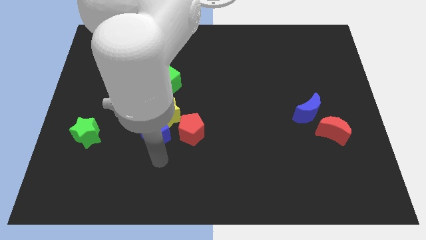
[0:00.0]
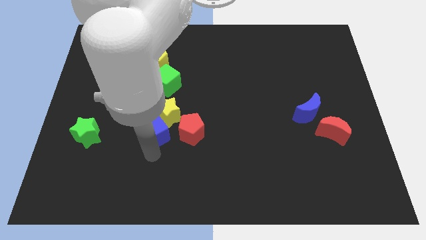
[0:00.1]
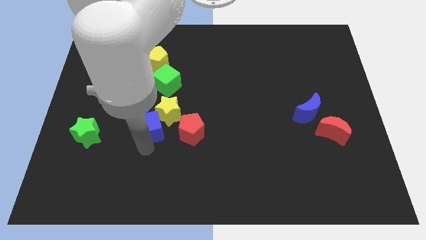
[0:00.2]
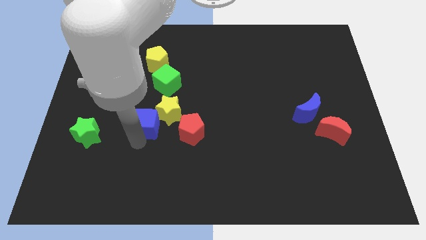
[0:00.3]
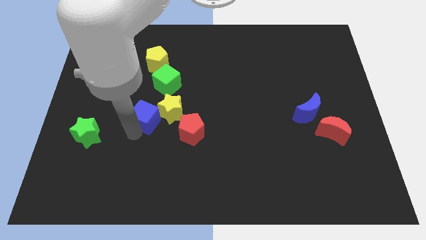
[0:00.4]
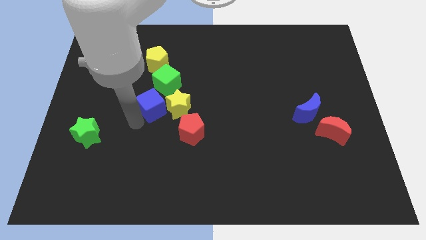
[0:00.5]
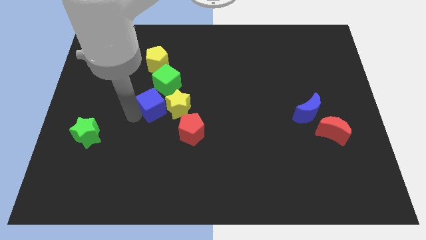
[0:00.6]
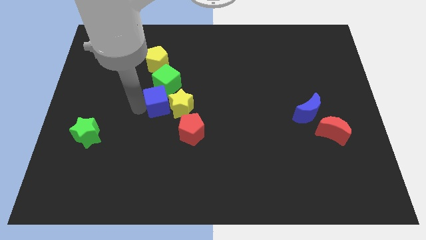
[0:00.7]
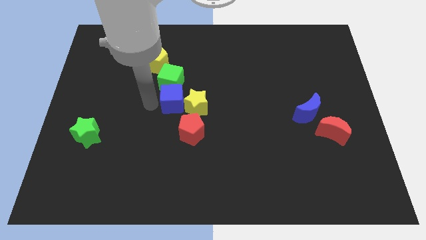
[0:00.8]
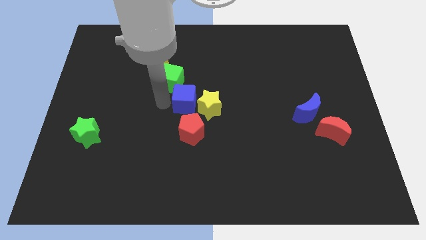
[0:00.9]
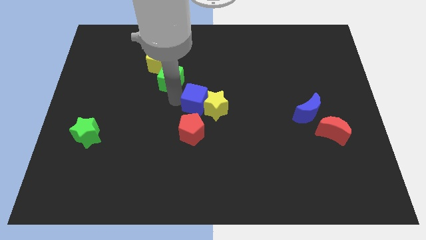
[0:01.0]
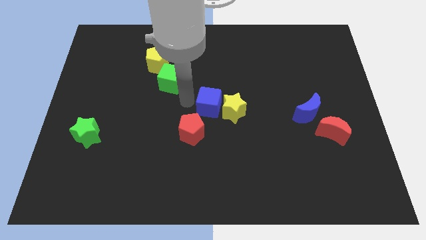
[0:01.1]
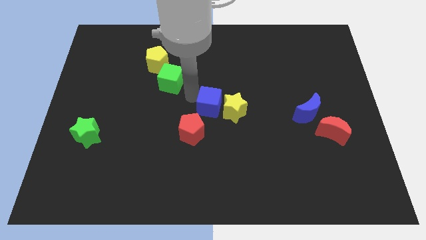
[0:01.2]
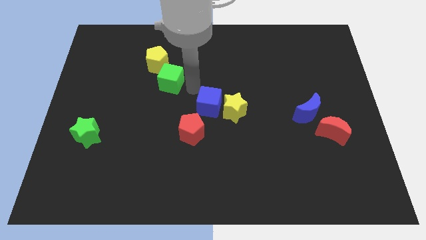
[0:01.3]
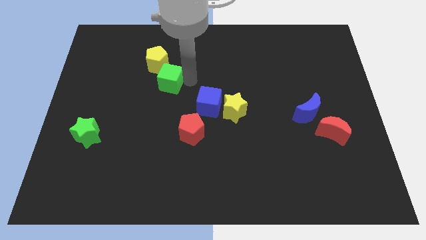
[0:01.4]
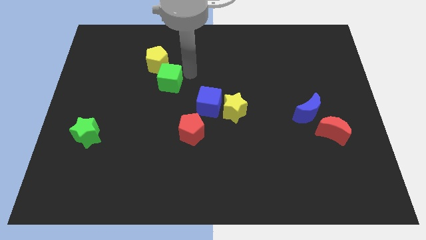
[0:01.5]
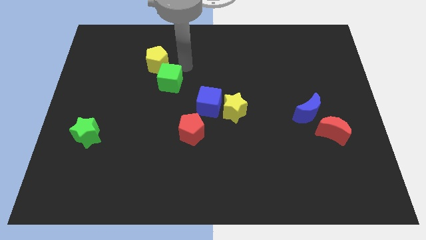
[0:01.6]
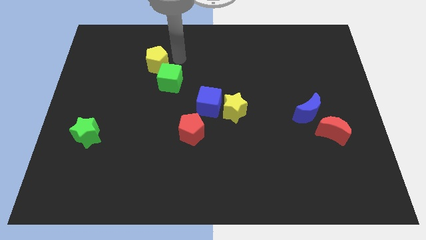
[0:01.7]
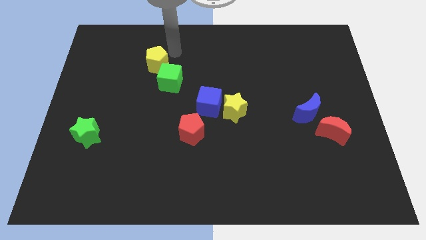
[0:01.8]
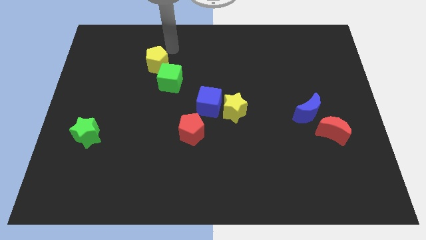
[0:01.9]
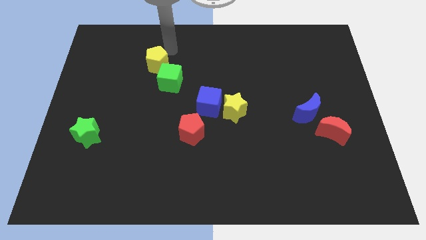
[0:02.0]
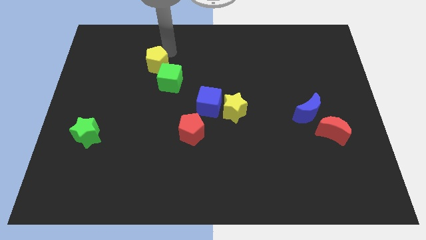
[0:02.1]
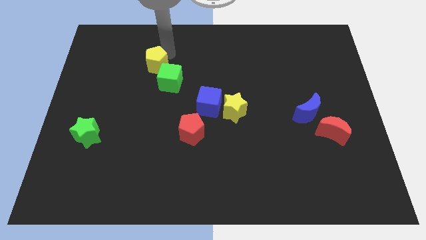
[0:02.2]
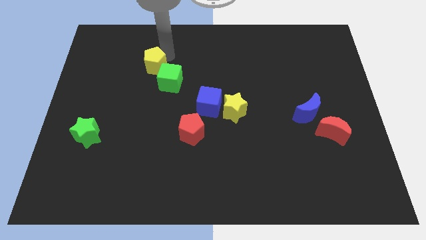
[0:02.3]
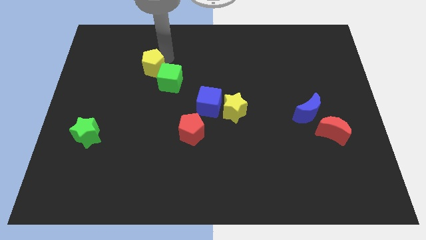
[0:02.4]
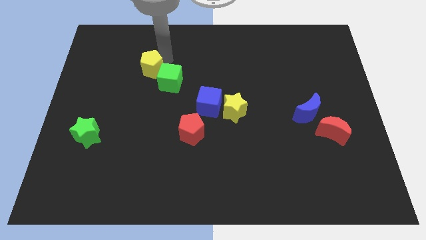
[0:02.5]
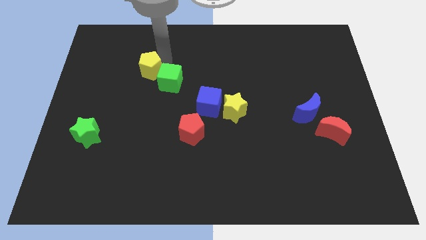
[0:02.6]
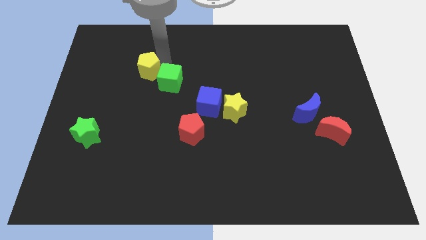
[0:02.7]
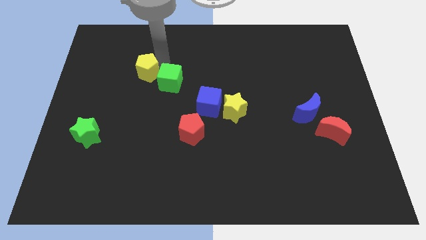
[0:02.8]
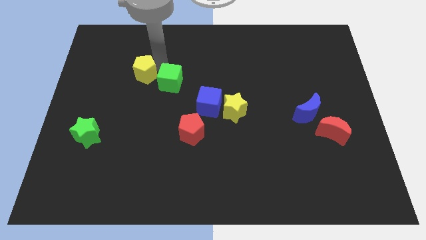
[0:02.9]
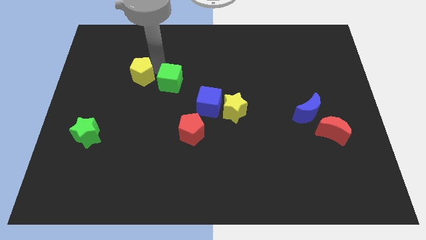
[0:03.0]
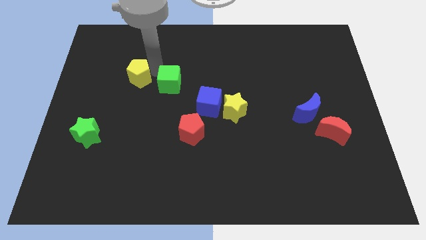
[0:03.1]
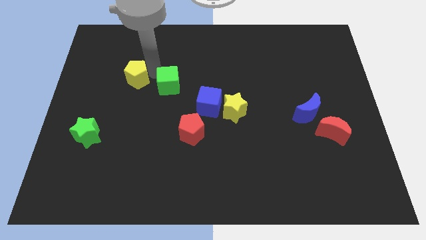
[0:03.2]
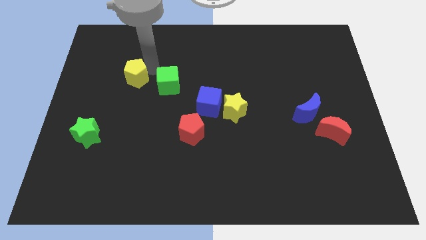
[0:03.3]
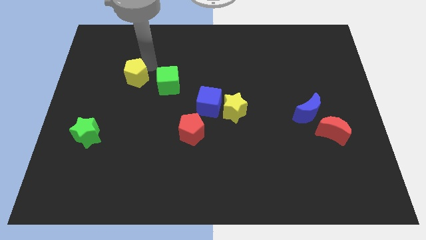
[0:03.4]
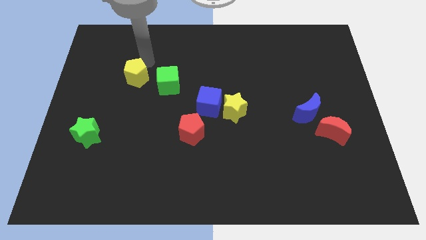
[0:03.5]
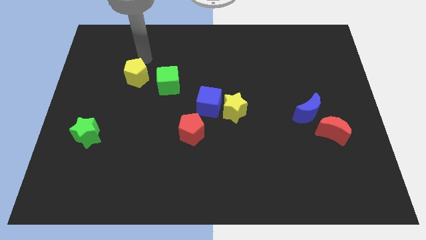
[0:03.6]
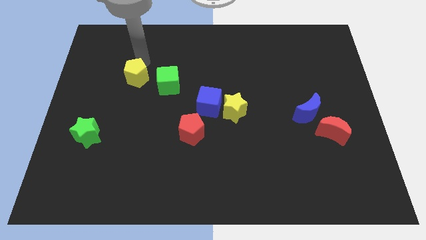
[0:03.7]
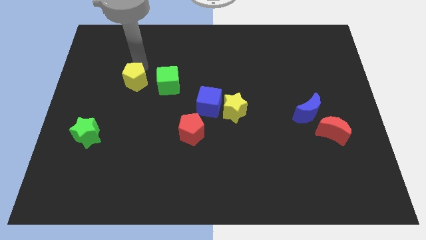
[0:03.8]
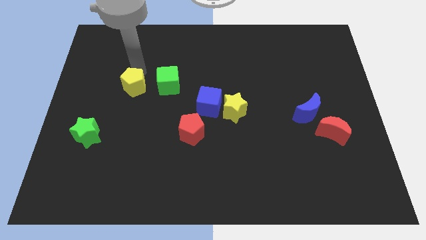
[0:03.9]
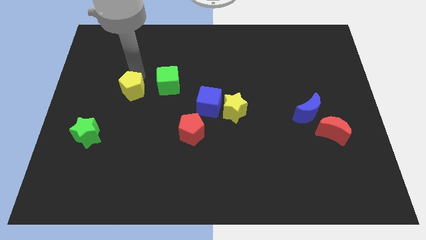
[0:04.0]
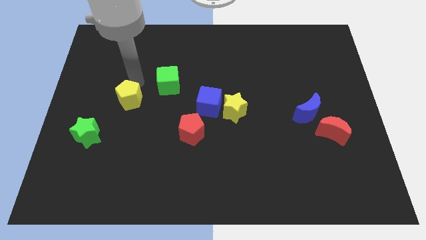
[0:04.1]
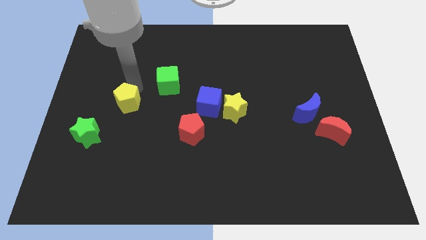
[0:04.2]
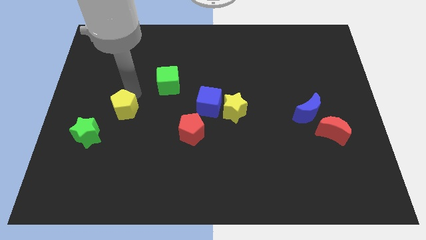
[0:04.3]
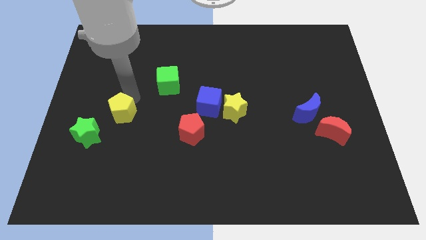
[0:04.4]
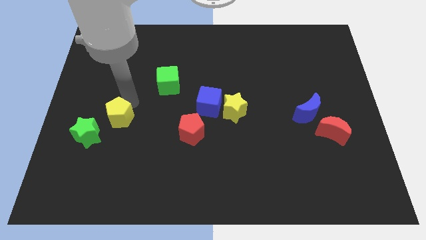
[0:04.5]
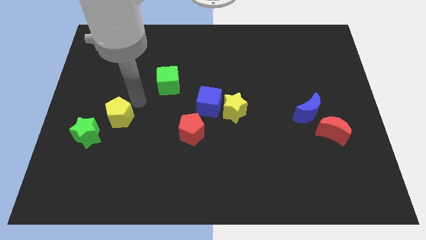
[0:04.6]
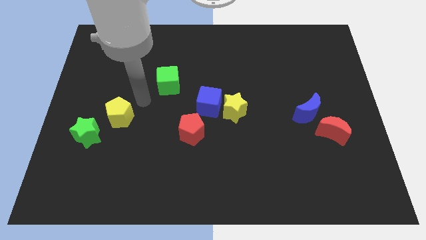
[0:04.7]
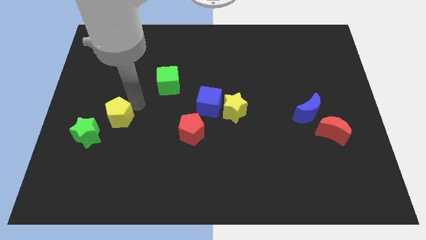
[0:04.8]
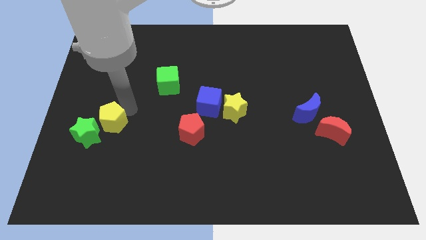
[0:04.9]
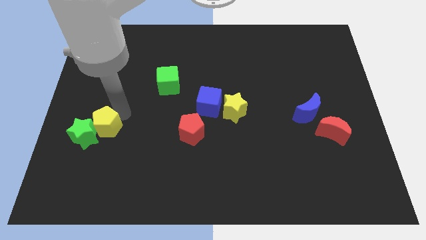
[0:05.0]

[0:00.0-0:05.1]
put the yellow pentagon next to the green star

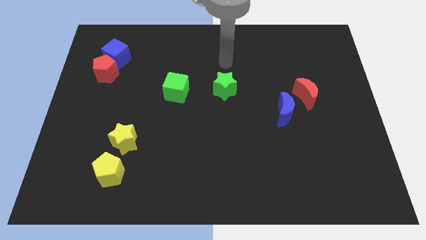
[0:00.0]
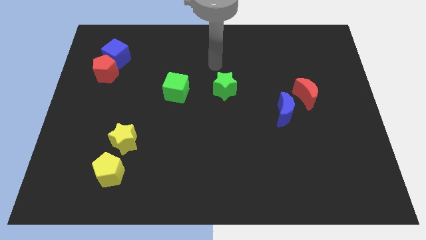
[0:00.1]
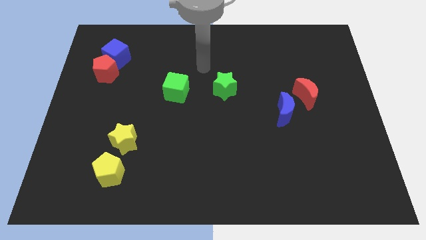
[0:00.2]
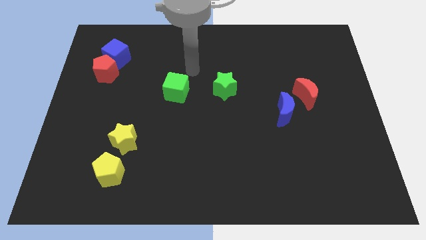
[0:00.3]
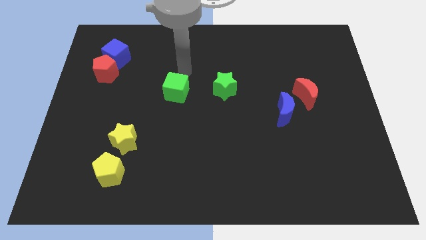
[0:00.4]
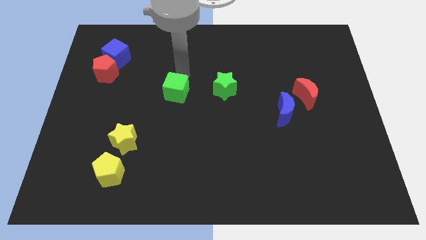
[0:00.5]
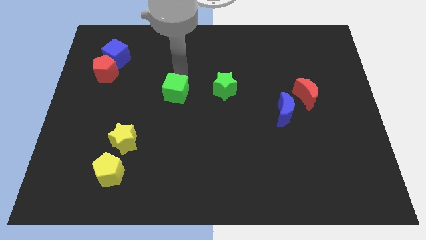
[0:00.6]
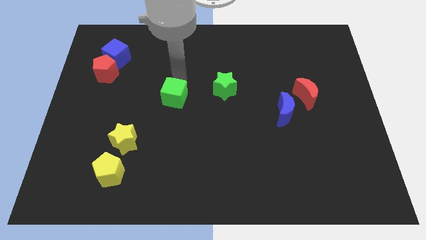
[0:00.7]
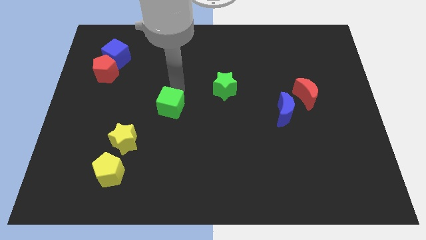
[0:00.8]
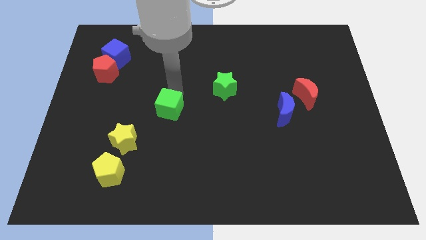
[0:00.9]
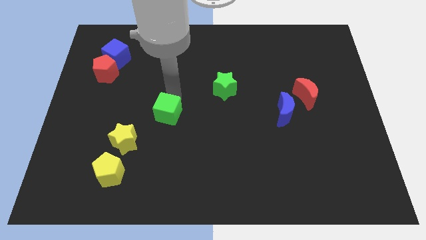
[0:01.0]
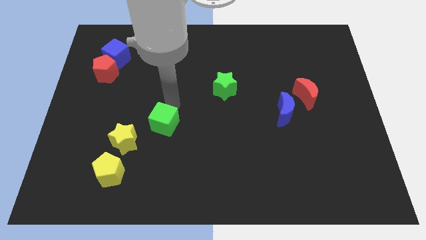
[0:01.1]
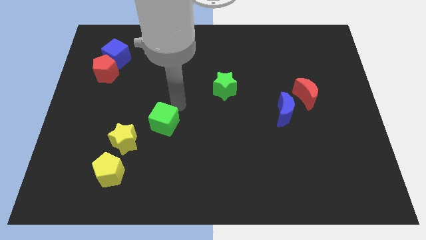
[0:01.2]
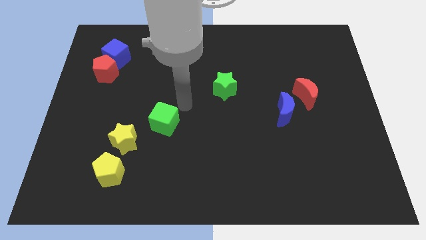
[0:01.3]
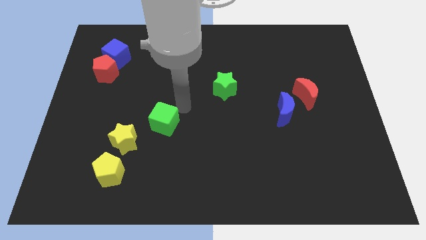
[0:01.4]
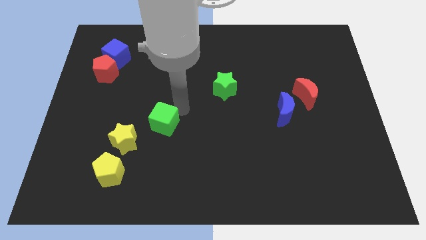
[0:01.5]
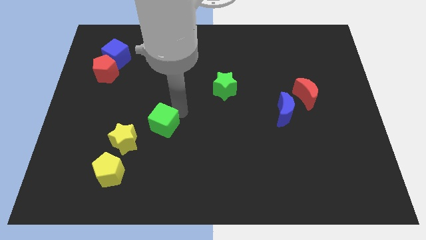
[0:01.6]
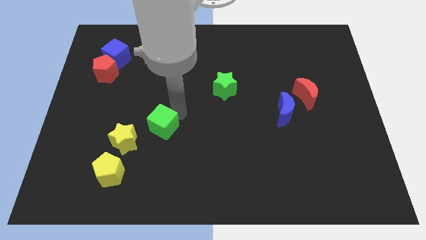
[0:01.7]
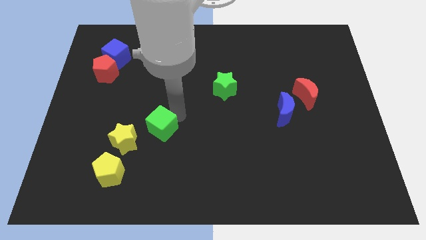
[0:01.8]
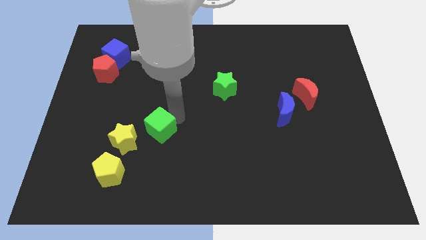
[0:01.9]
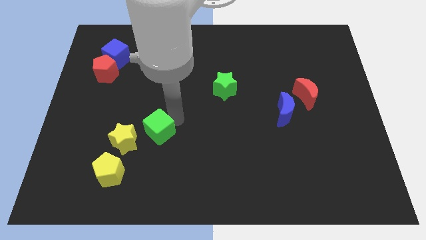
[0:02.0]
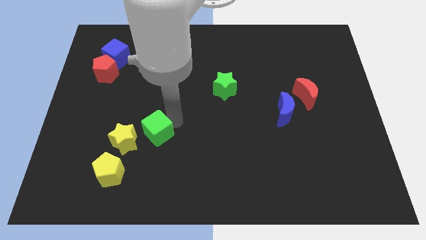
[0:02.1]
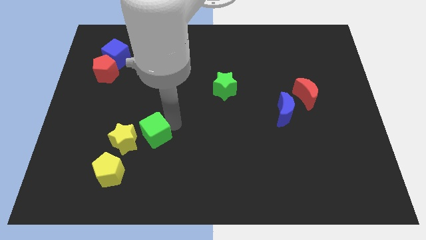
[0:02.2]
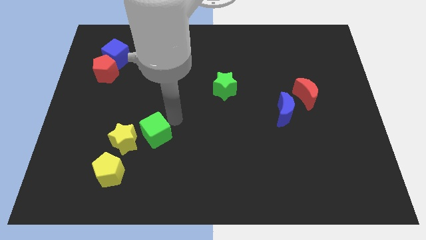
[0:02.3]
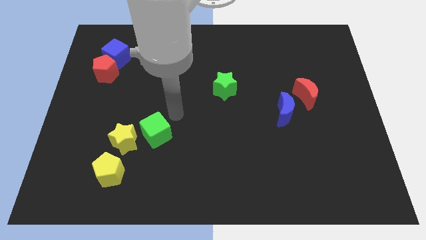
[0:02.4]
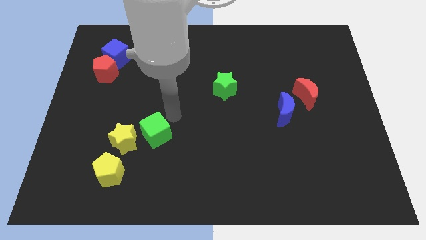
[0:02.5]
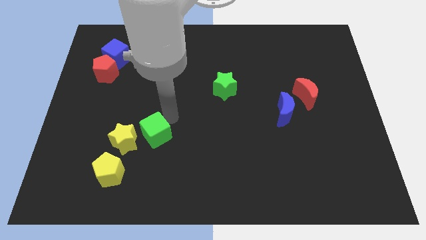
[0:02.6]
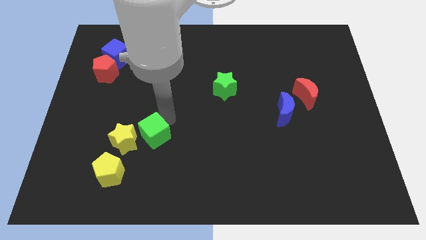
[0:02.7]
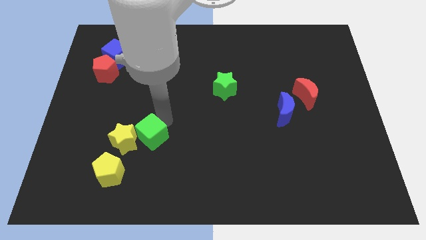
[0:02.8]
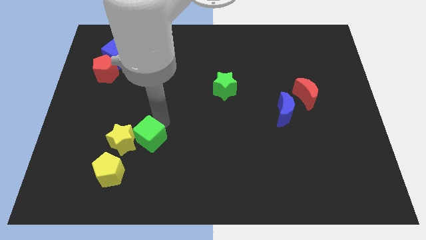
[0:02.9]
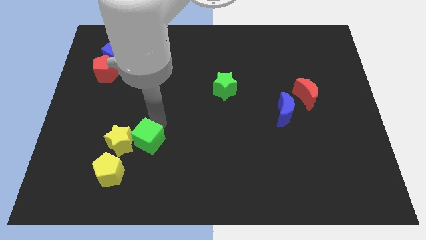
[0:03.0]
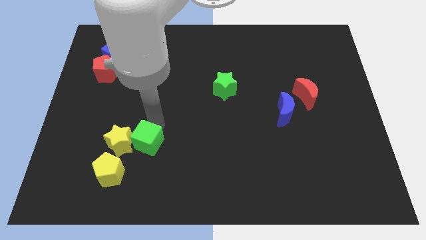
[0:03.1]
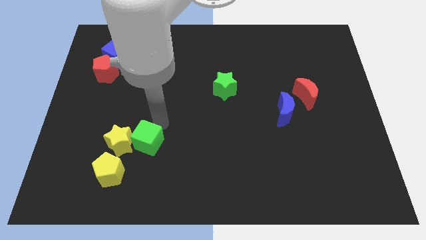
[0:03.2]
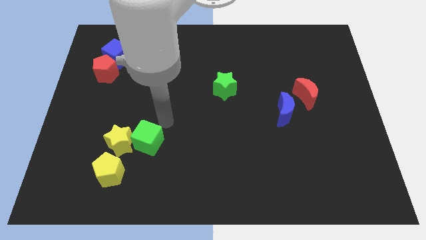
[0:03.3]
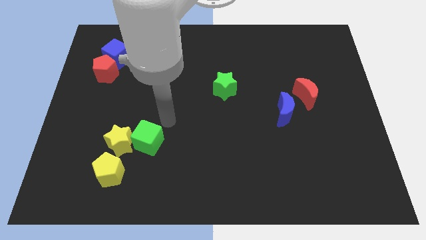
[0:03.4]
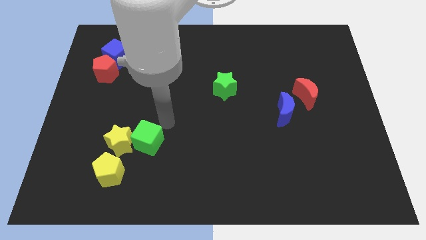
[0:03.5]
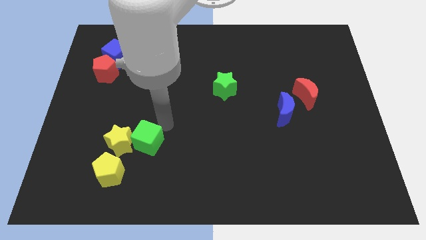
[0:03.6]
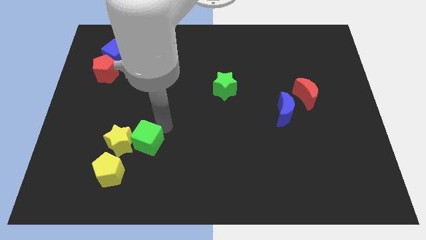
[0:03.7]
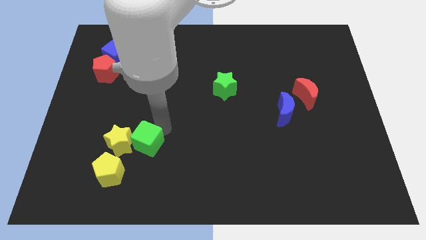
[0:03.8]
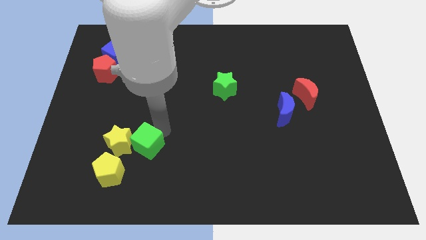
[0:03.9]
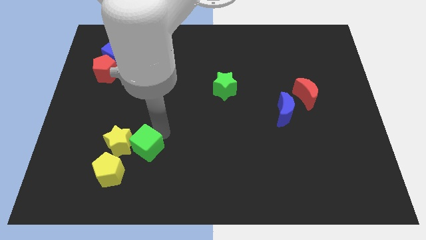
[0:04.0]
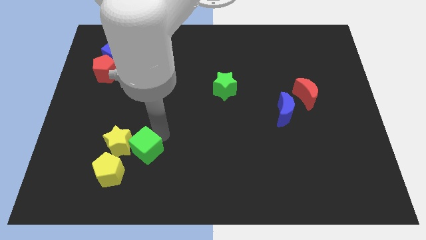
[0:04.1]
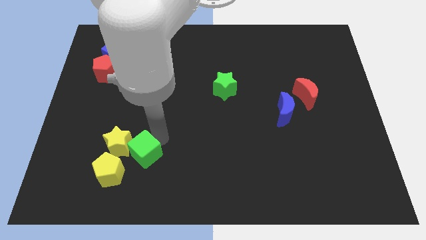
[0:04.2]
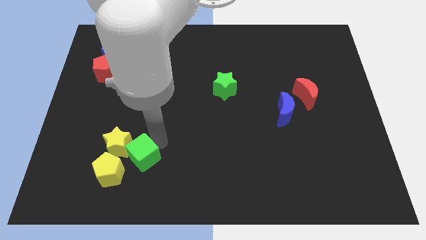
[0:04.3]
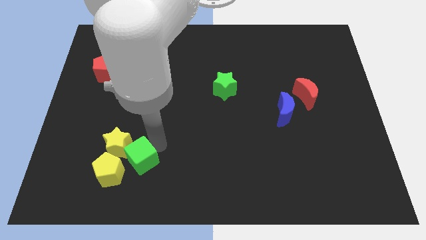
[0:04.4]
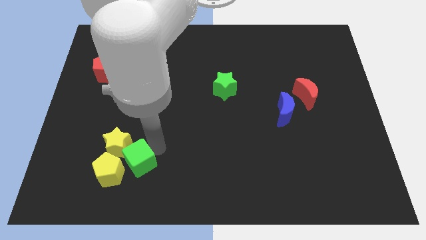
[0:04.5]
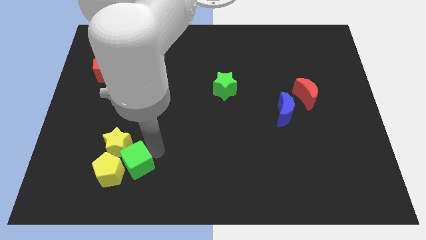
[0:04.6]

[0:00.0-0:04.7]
put the green cube close to the yellow pentagon
